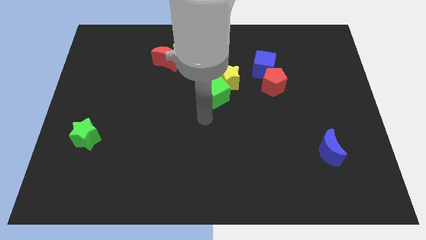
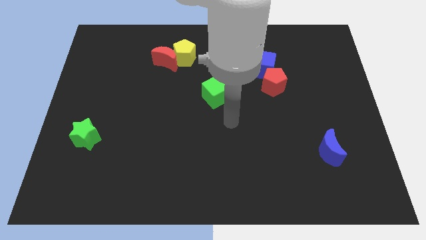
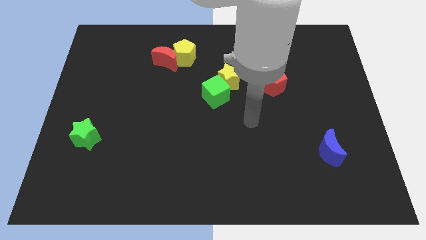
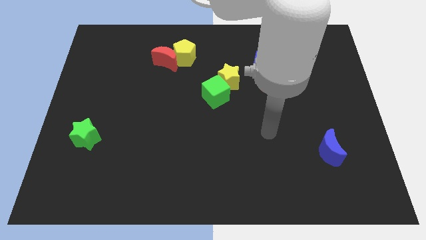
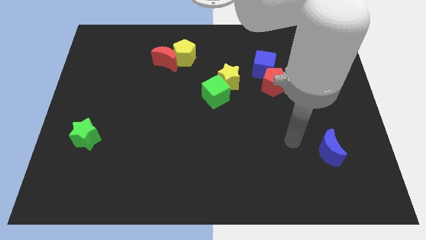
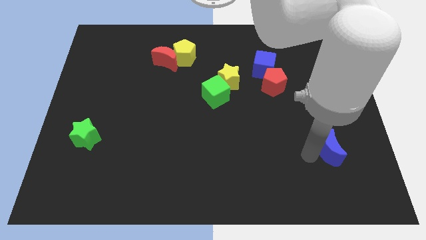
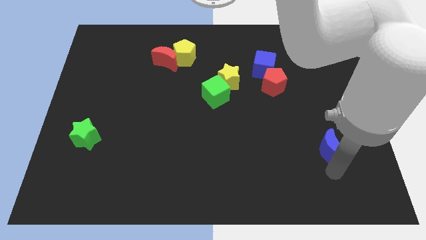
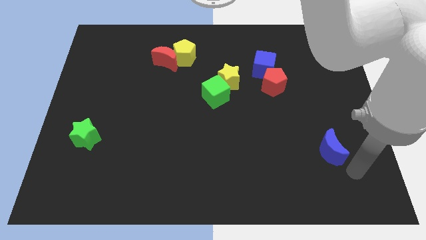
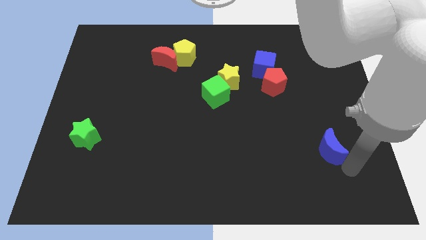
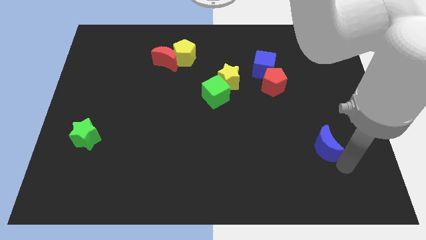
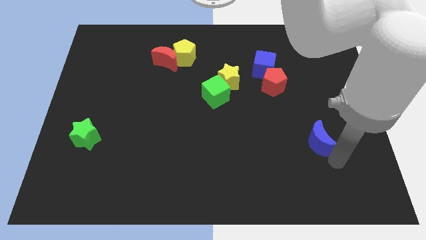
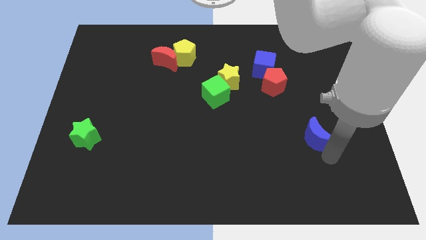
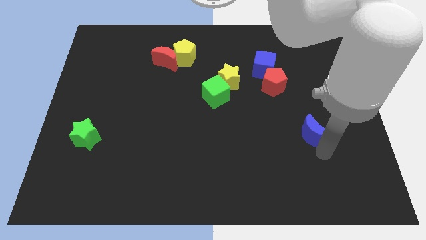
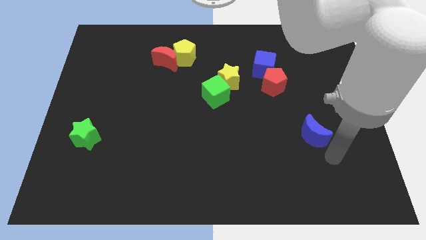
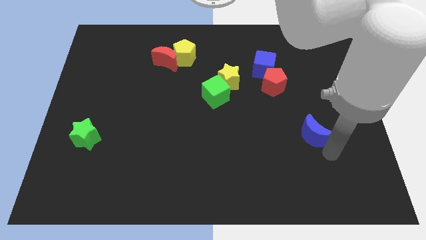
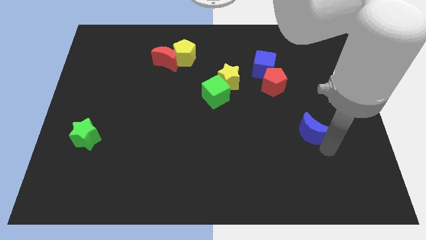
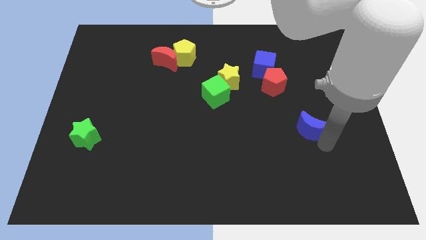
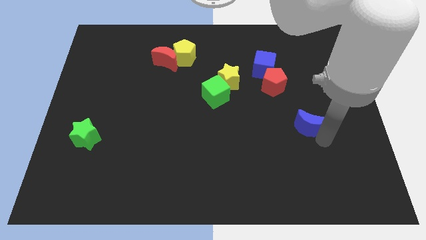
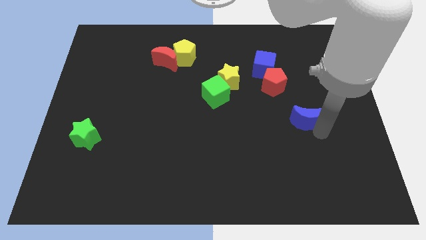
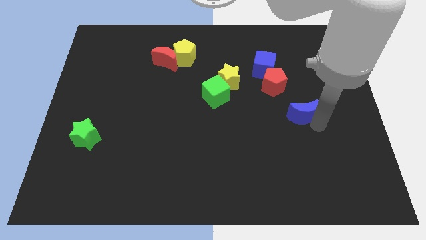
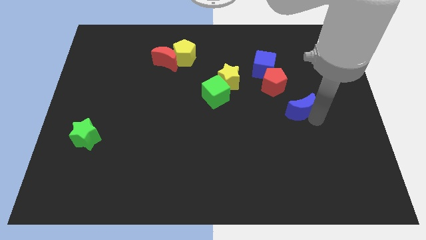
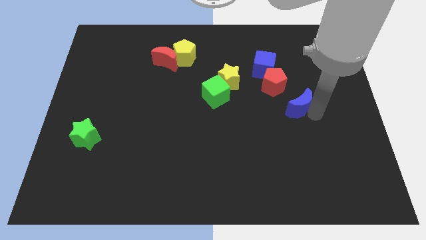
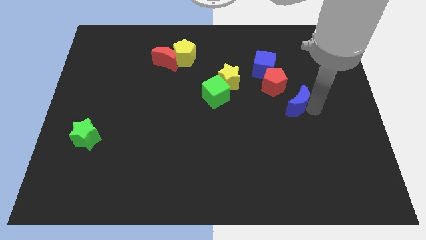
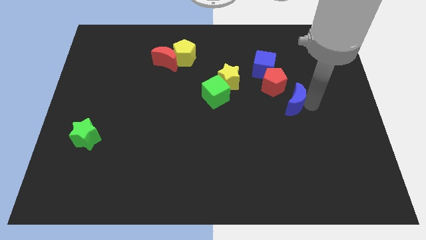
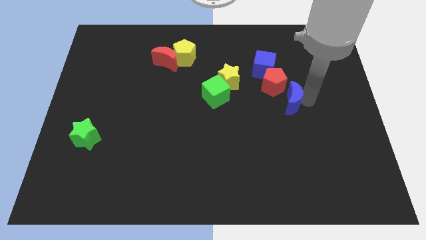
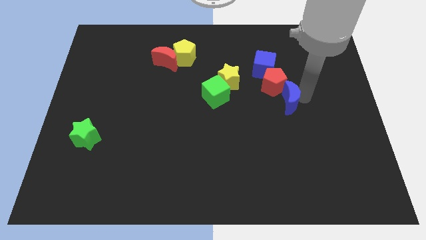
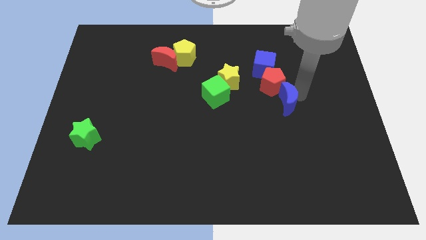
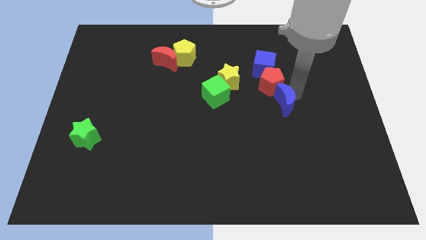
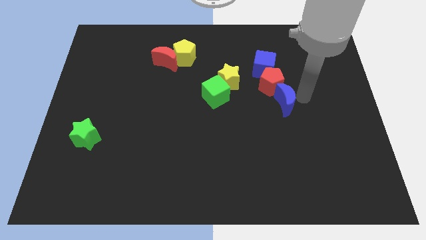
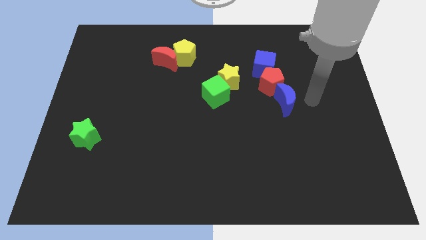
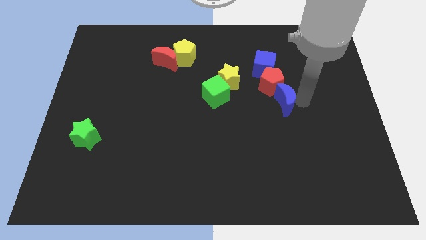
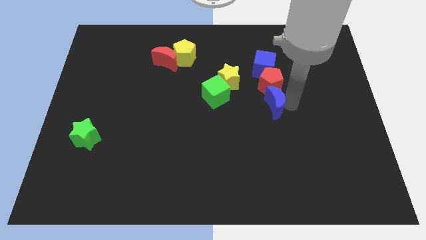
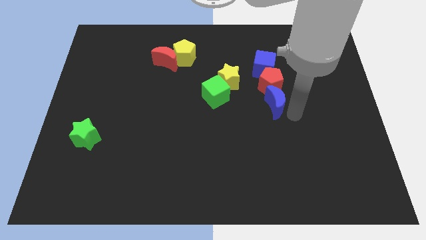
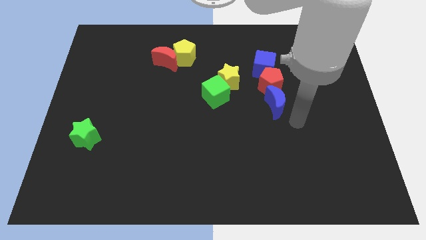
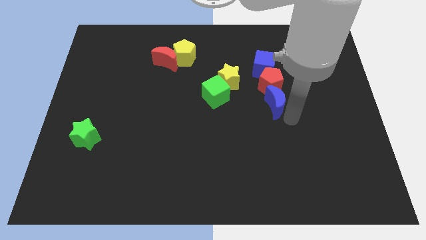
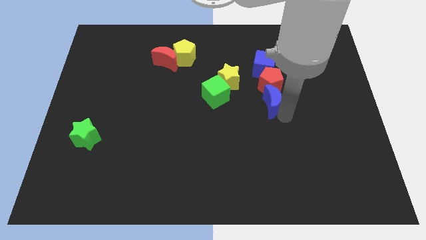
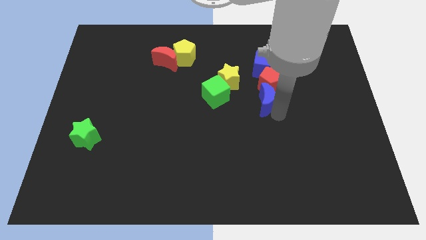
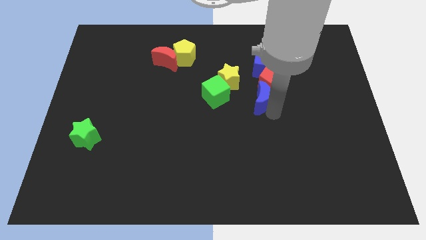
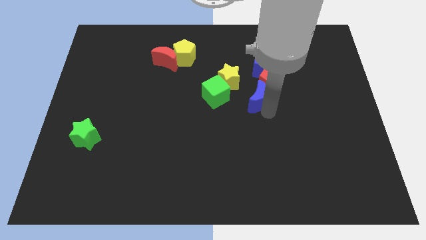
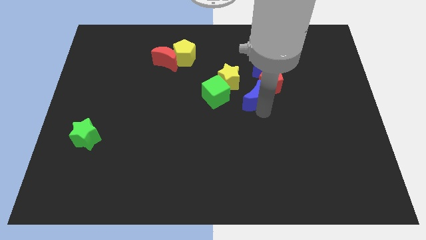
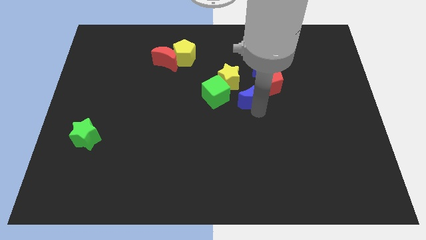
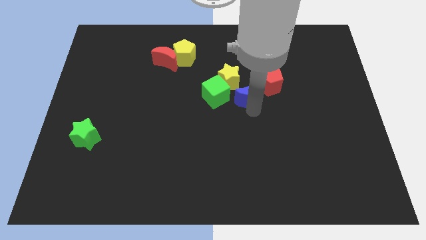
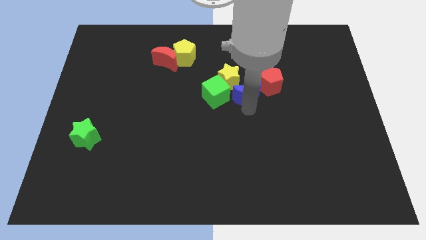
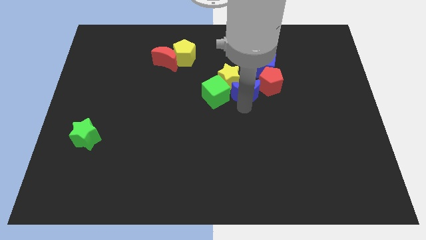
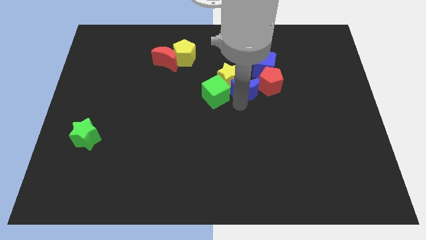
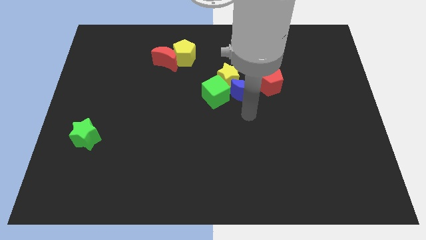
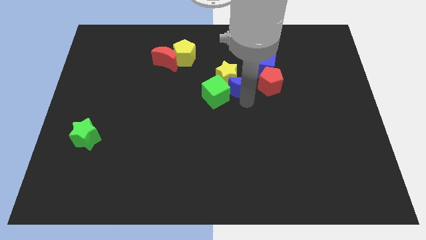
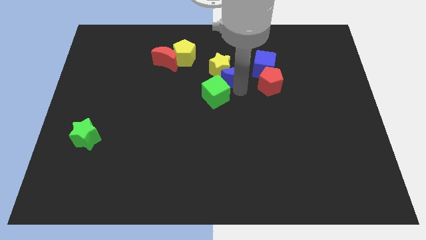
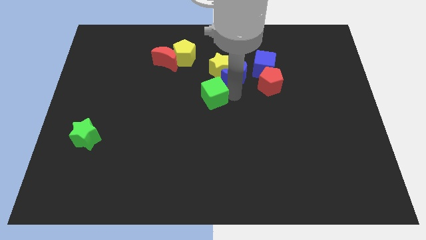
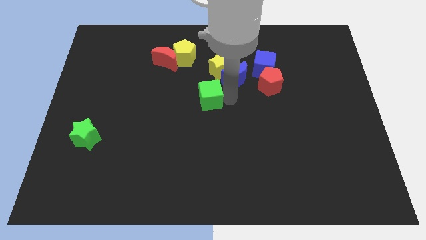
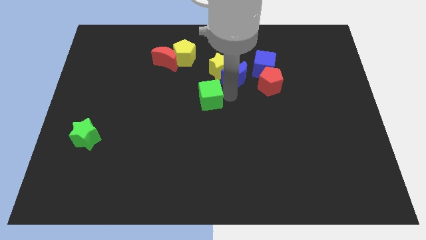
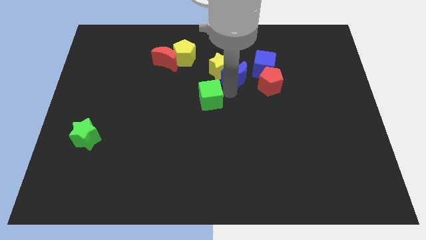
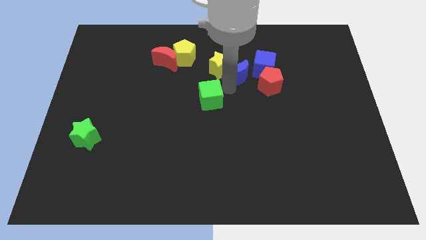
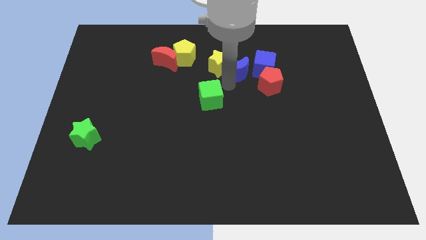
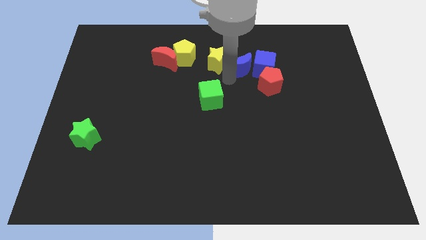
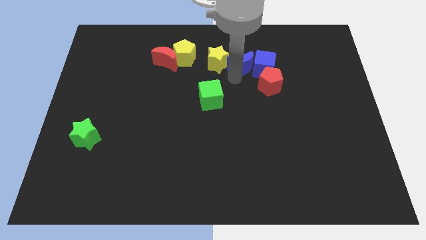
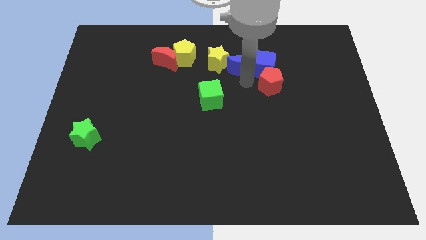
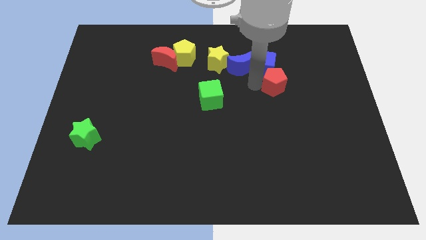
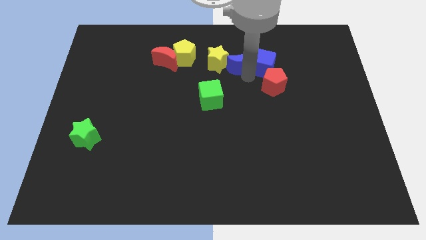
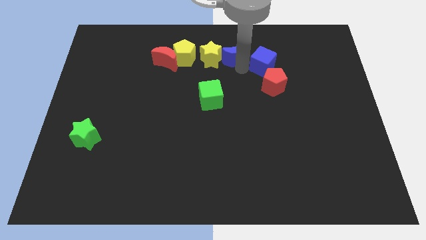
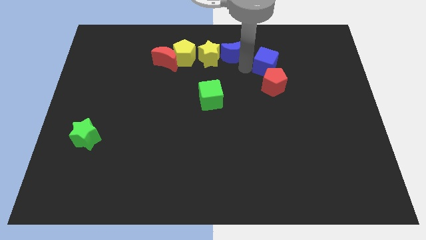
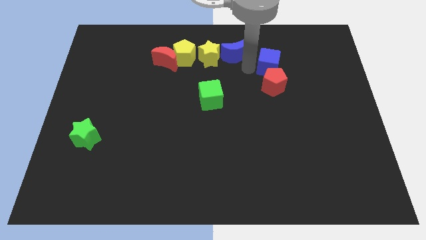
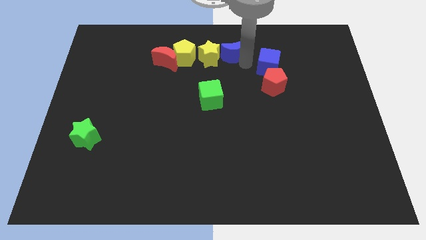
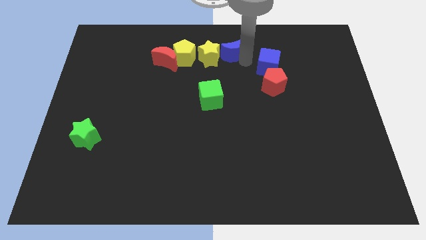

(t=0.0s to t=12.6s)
slide the blue moon to the top
